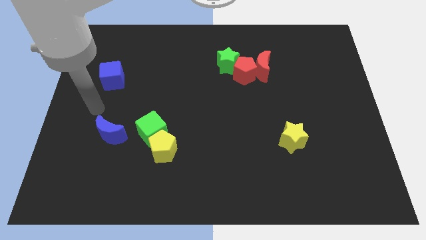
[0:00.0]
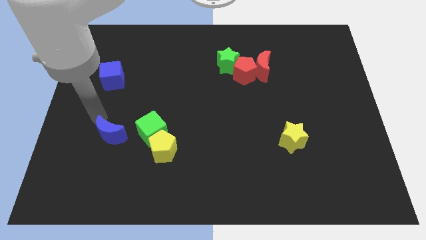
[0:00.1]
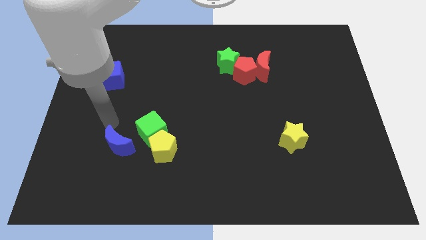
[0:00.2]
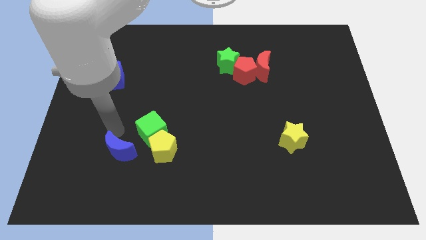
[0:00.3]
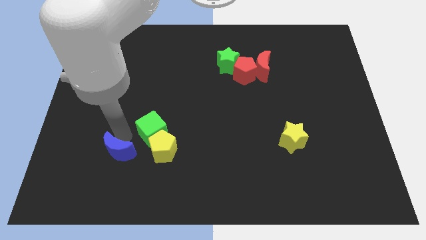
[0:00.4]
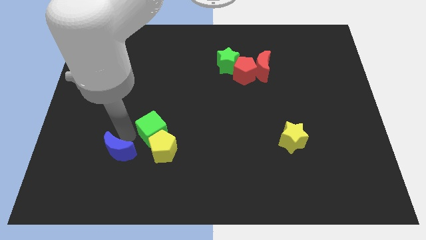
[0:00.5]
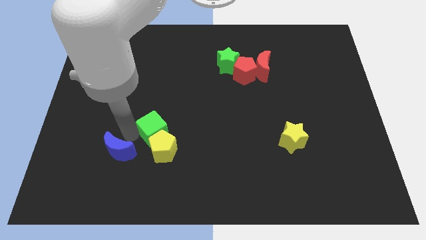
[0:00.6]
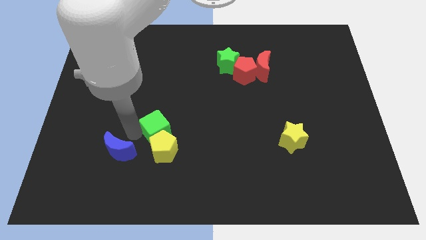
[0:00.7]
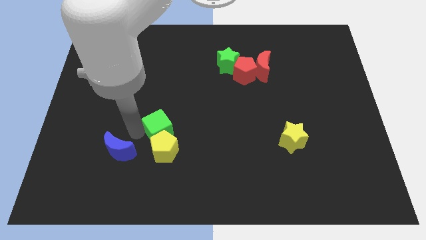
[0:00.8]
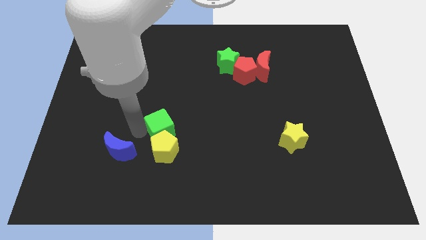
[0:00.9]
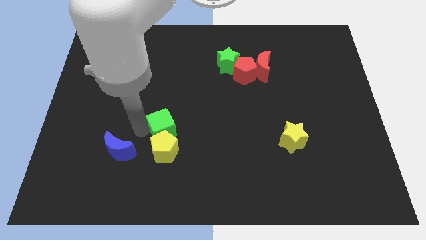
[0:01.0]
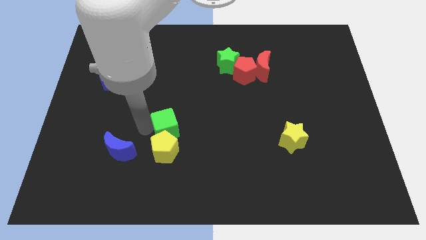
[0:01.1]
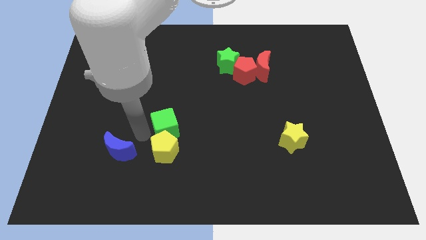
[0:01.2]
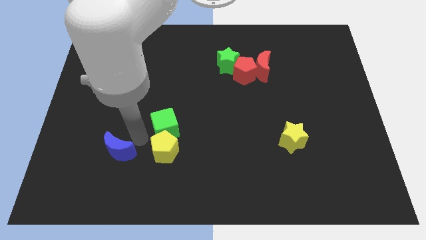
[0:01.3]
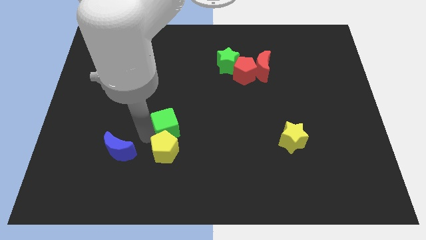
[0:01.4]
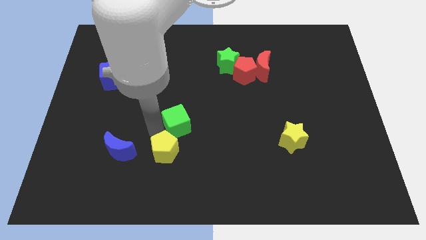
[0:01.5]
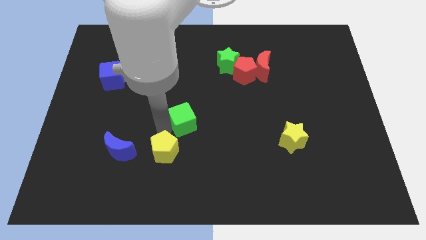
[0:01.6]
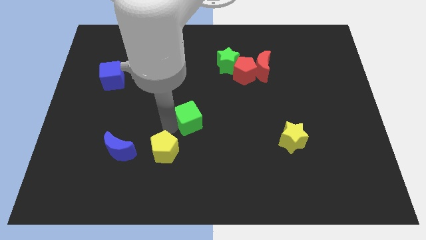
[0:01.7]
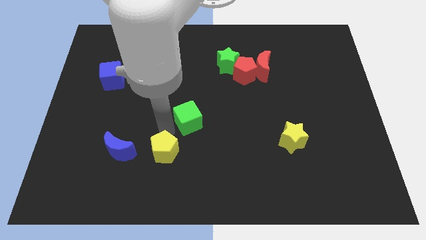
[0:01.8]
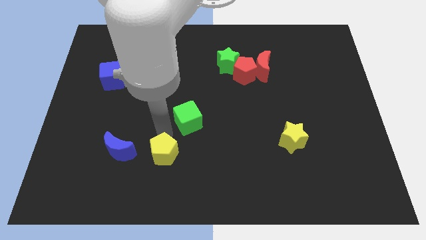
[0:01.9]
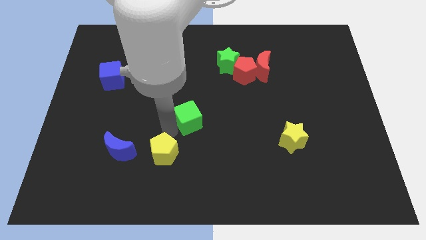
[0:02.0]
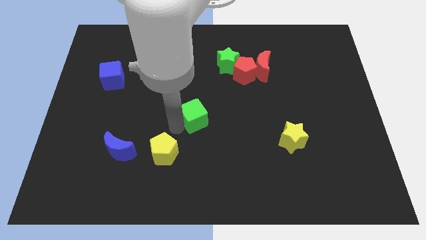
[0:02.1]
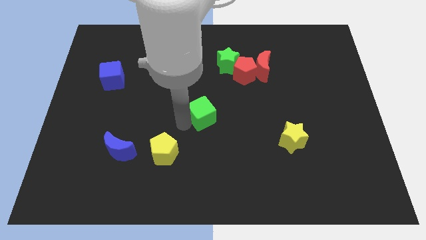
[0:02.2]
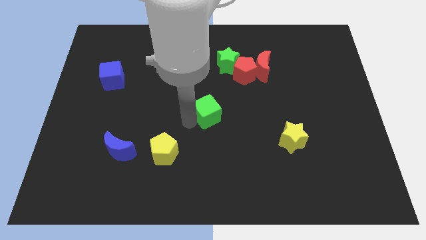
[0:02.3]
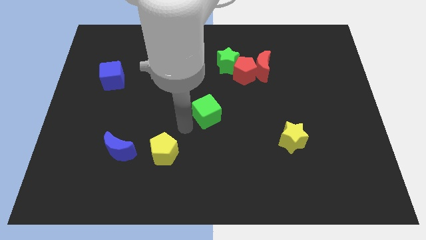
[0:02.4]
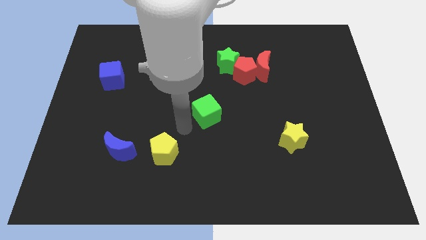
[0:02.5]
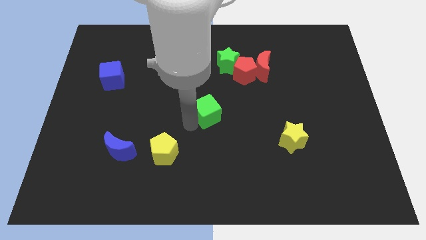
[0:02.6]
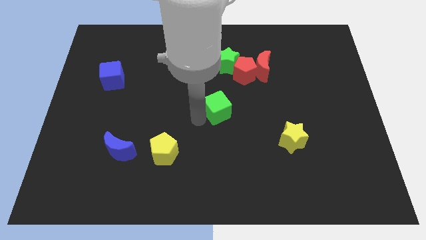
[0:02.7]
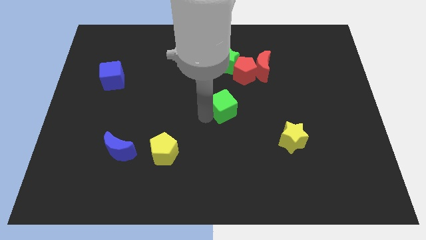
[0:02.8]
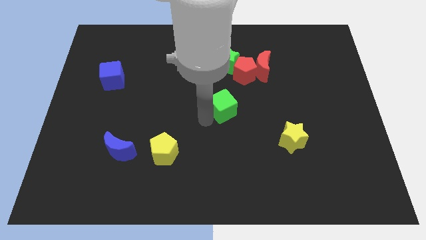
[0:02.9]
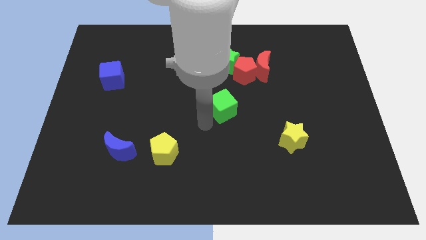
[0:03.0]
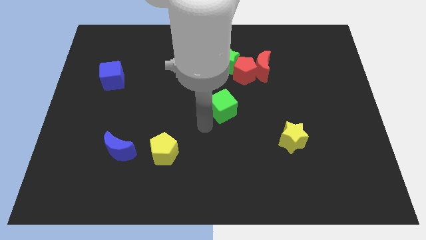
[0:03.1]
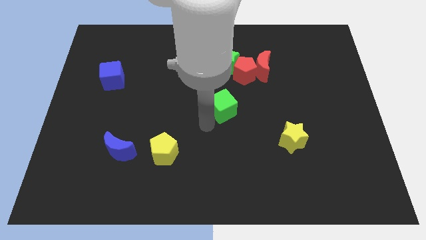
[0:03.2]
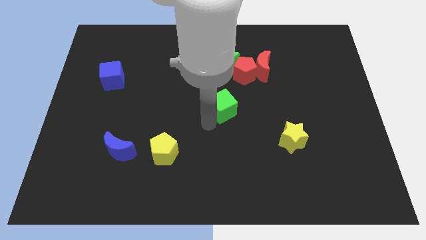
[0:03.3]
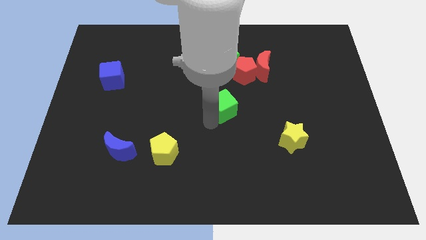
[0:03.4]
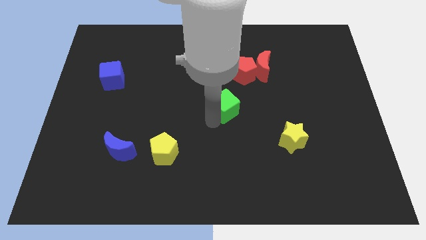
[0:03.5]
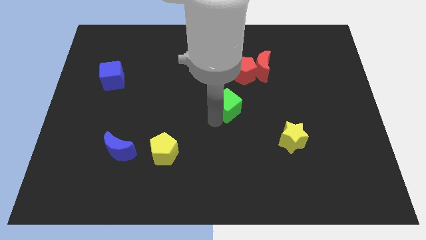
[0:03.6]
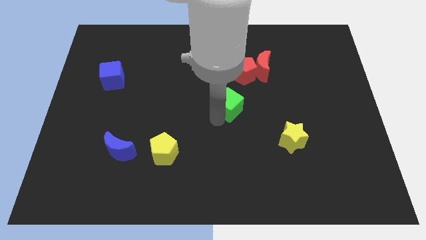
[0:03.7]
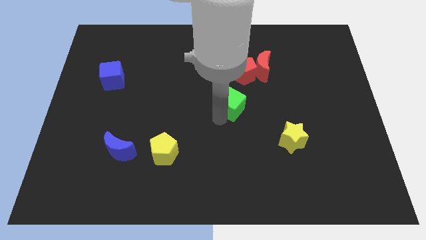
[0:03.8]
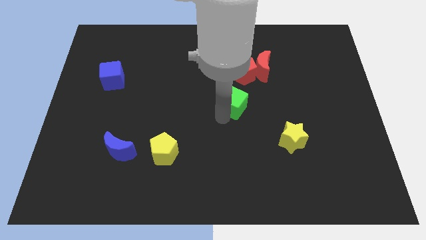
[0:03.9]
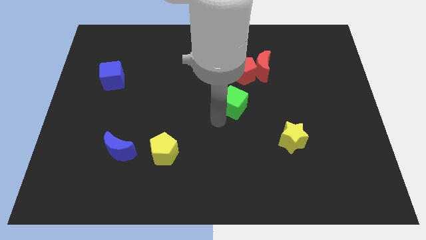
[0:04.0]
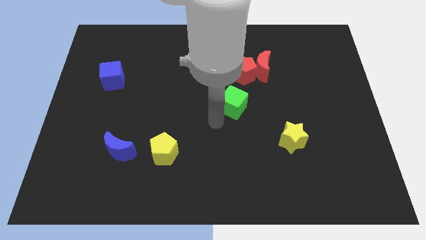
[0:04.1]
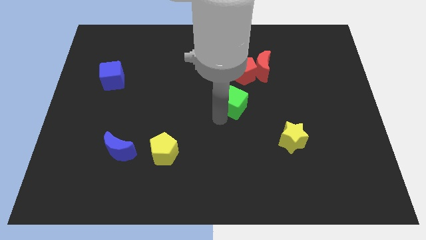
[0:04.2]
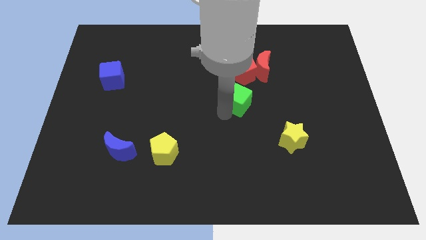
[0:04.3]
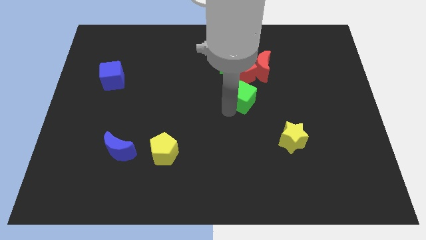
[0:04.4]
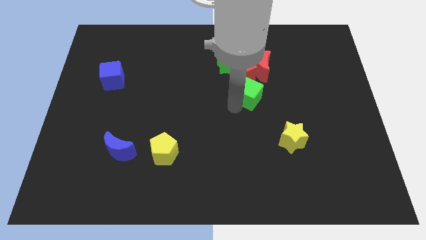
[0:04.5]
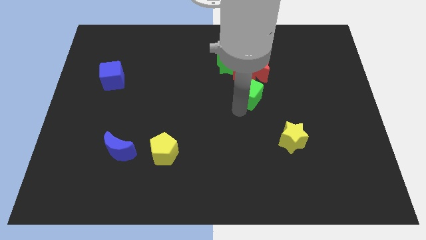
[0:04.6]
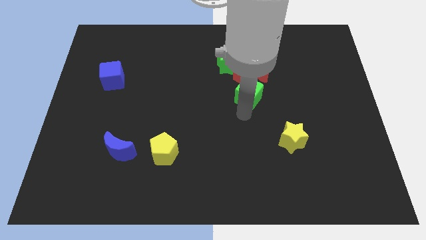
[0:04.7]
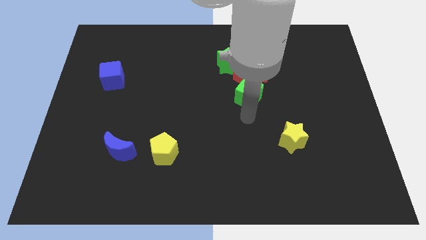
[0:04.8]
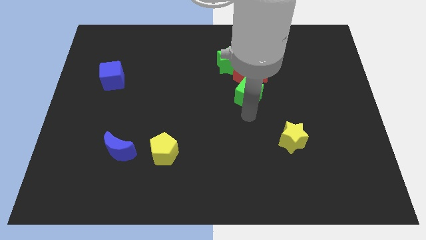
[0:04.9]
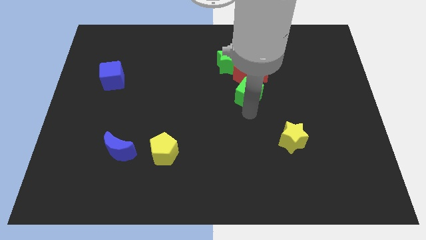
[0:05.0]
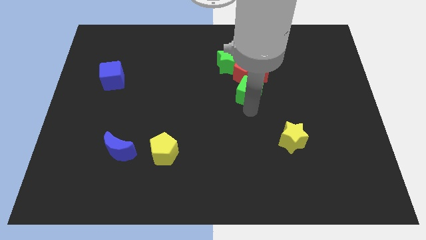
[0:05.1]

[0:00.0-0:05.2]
push the green cube to the bottom right side of the green star

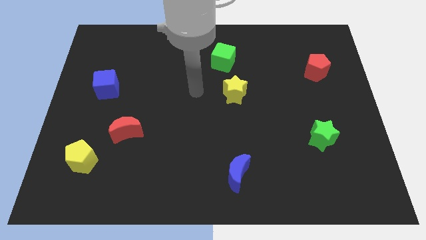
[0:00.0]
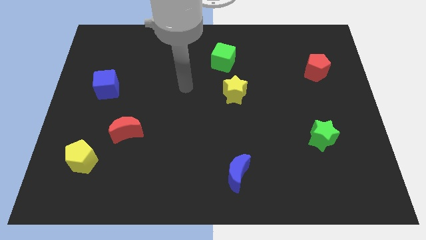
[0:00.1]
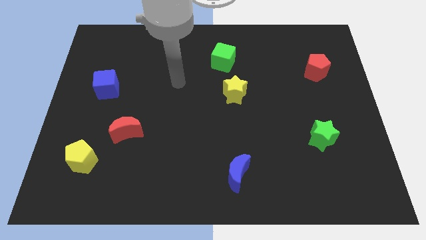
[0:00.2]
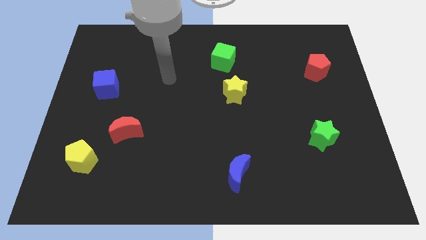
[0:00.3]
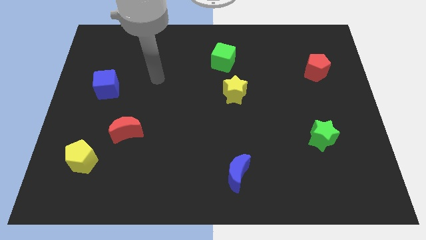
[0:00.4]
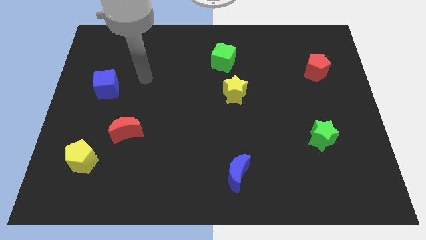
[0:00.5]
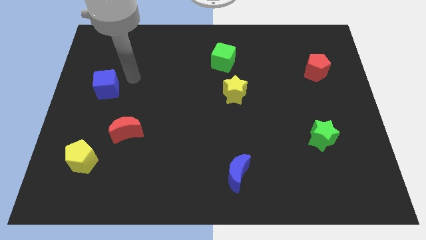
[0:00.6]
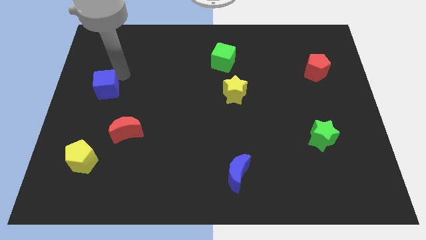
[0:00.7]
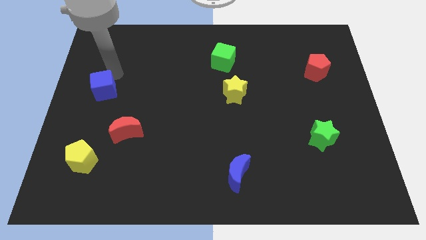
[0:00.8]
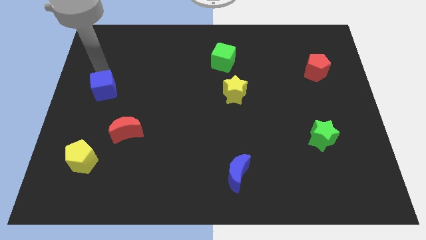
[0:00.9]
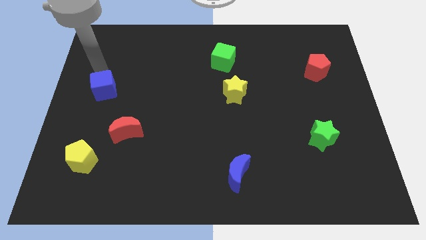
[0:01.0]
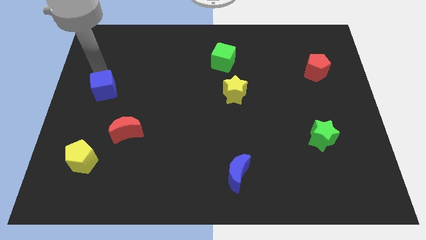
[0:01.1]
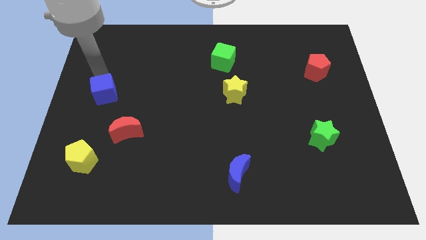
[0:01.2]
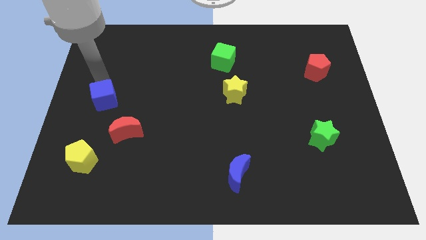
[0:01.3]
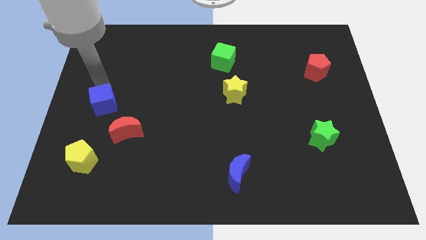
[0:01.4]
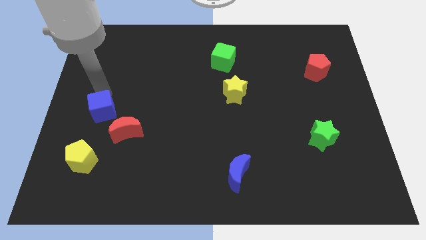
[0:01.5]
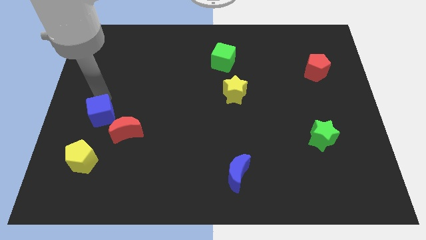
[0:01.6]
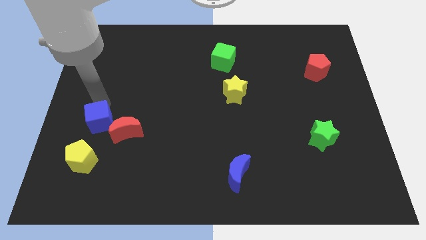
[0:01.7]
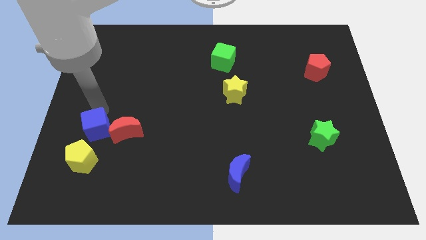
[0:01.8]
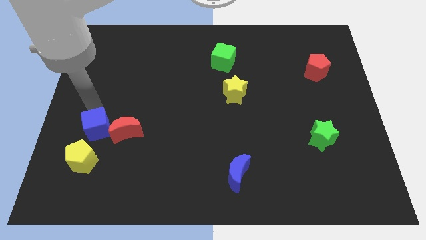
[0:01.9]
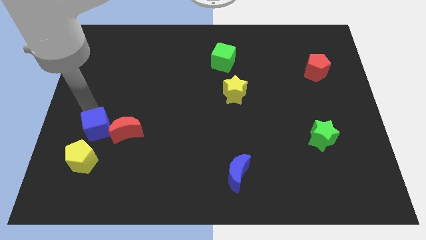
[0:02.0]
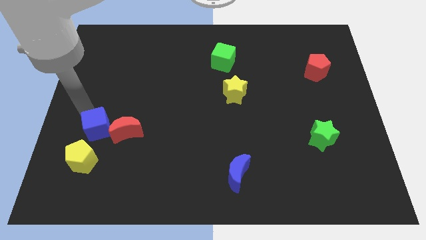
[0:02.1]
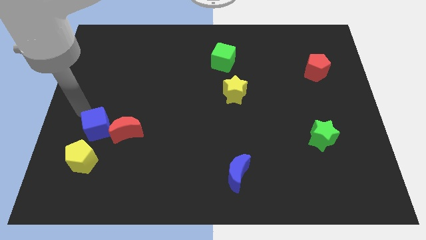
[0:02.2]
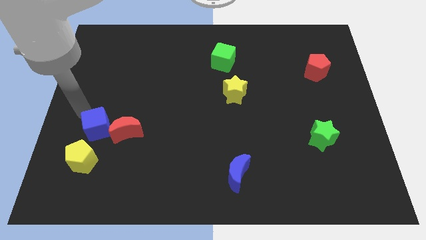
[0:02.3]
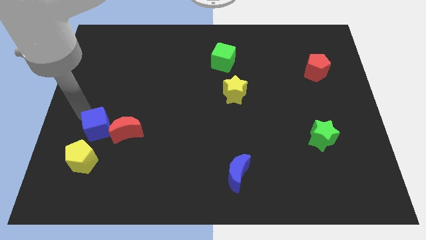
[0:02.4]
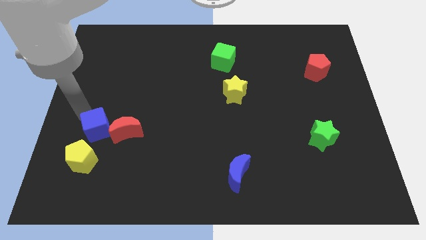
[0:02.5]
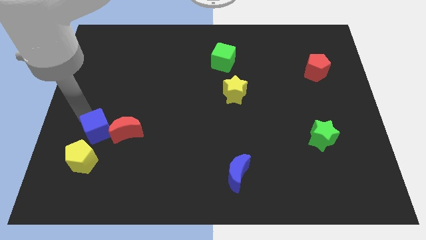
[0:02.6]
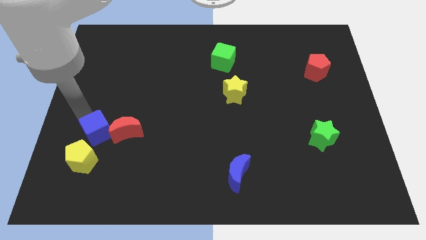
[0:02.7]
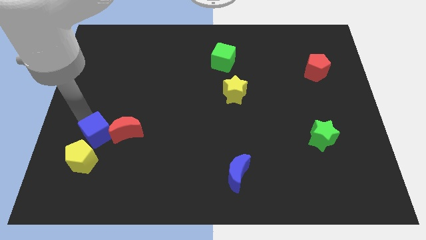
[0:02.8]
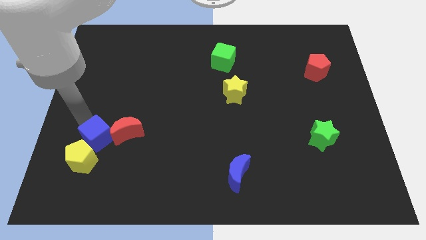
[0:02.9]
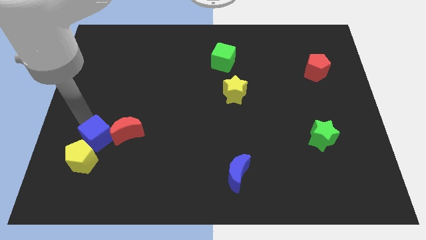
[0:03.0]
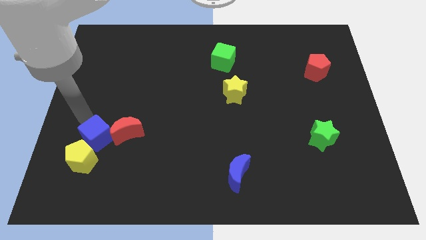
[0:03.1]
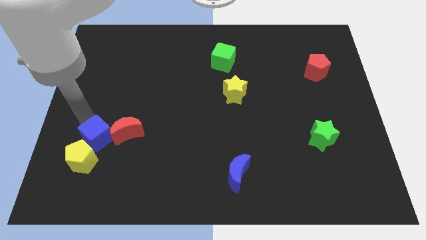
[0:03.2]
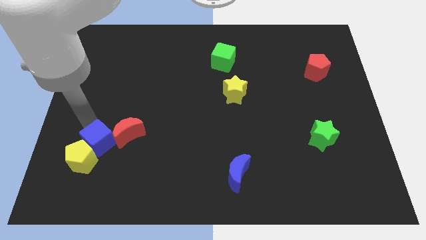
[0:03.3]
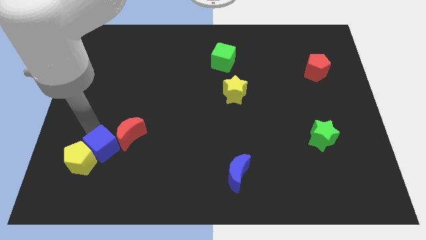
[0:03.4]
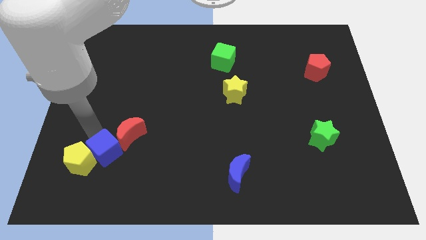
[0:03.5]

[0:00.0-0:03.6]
move the blue cube to the bottom of the red moon
